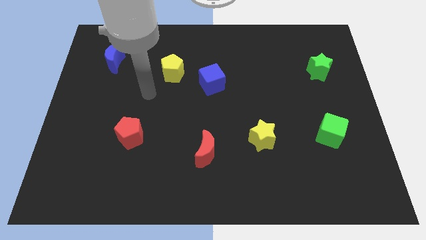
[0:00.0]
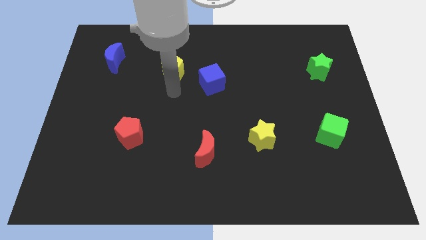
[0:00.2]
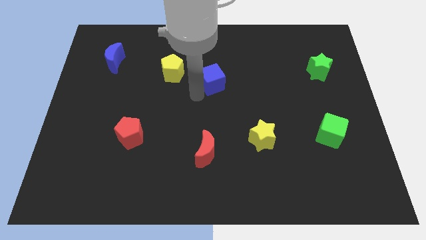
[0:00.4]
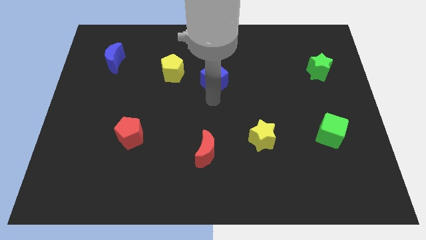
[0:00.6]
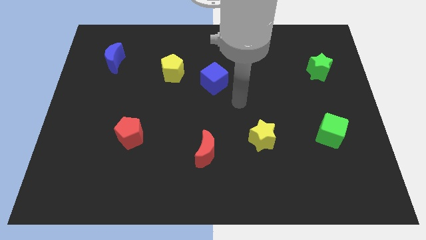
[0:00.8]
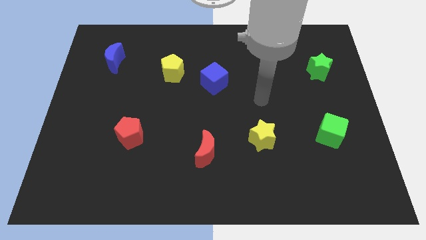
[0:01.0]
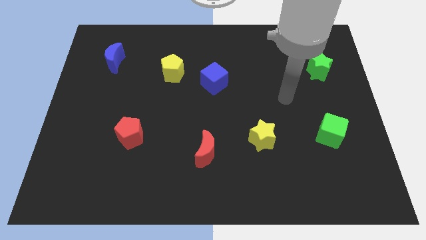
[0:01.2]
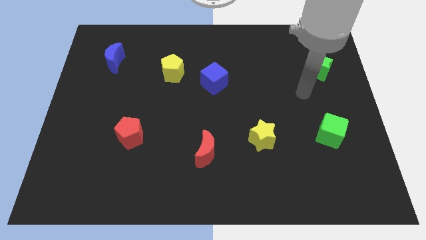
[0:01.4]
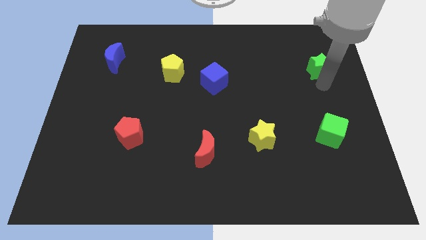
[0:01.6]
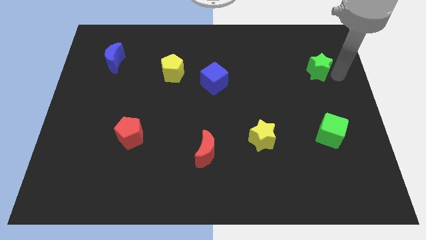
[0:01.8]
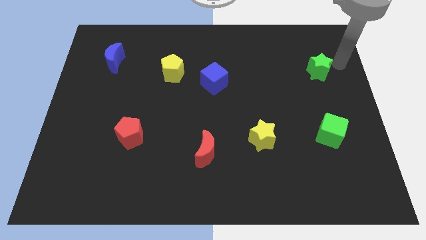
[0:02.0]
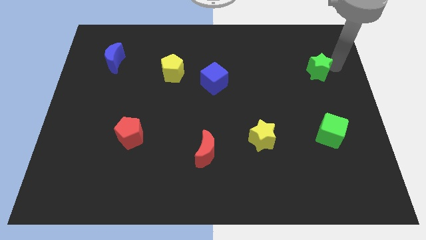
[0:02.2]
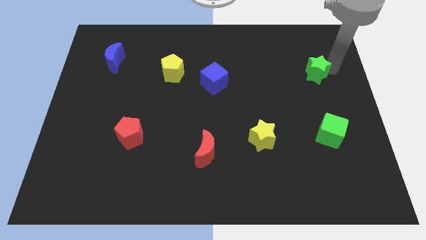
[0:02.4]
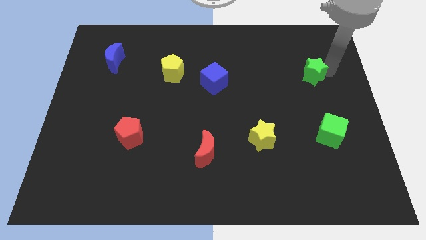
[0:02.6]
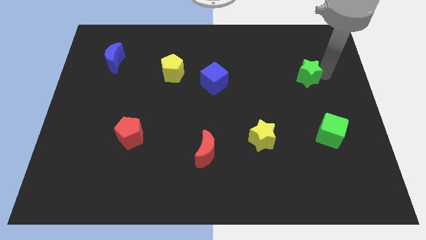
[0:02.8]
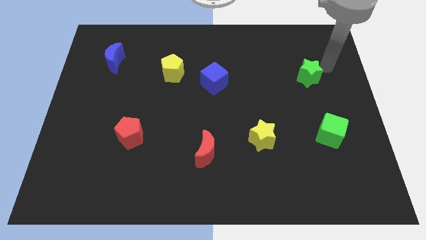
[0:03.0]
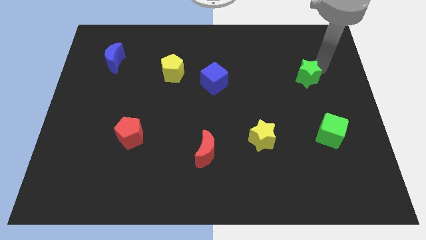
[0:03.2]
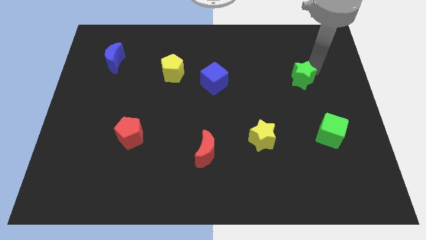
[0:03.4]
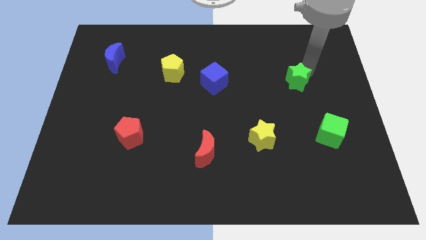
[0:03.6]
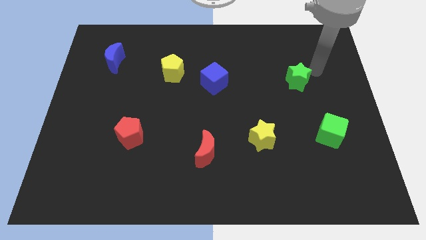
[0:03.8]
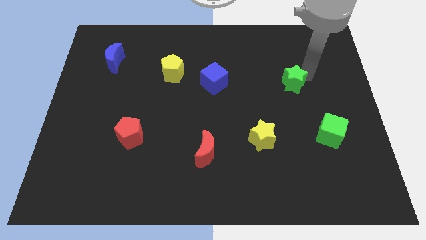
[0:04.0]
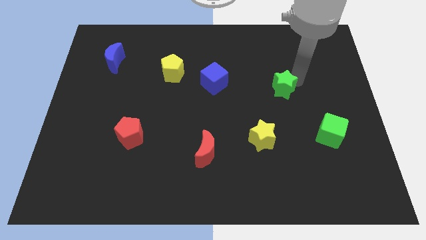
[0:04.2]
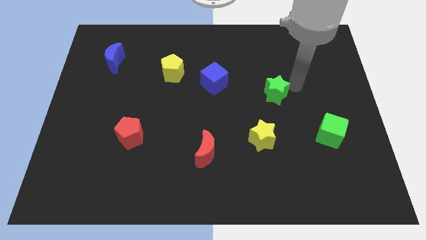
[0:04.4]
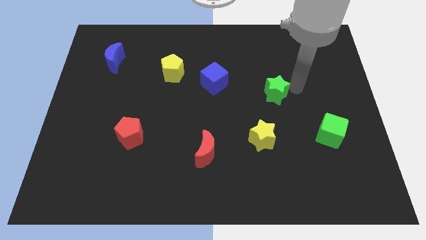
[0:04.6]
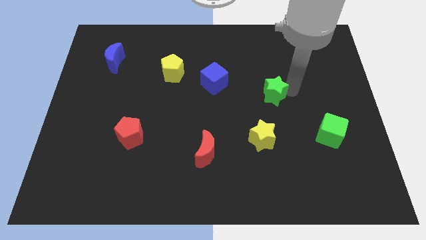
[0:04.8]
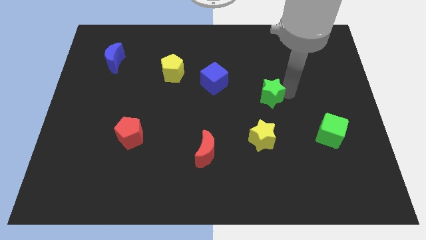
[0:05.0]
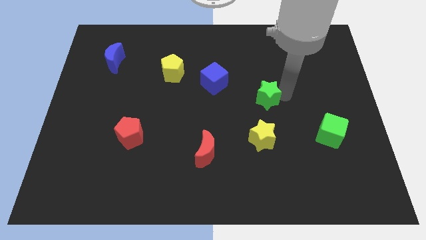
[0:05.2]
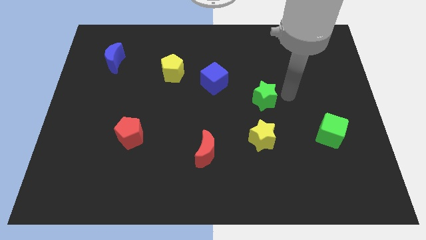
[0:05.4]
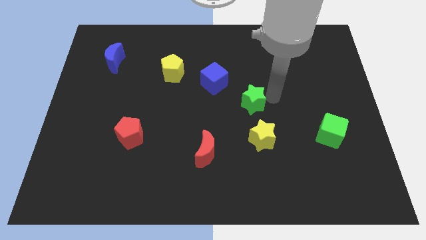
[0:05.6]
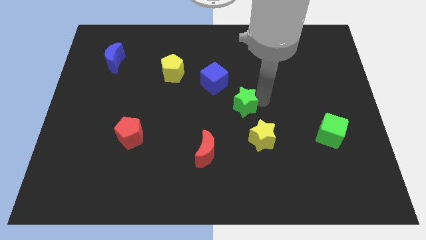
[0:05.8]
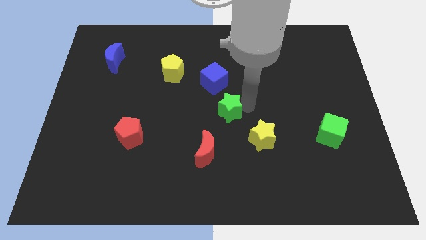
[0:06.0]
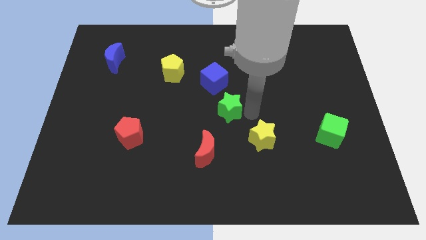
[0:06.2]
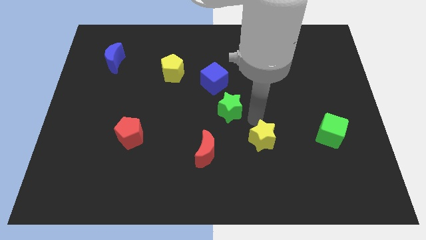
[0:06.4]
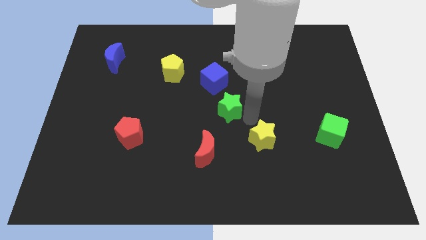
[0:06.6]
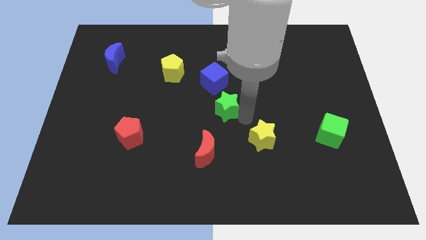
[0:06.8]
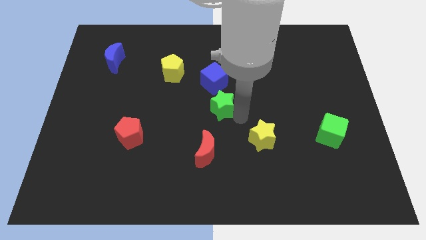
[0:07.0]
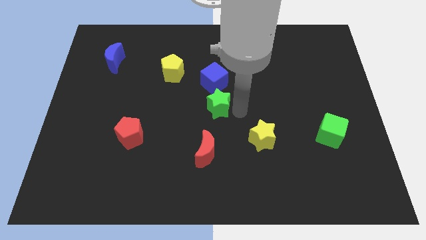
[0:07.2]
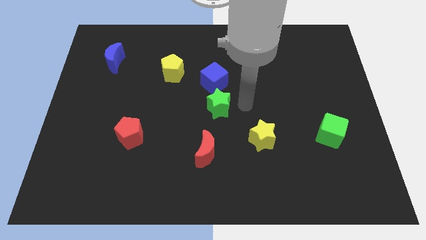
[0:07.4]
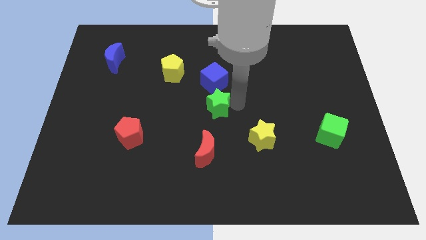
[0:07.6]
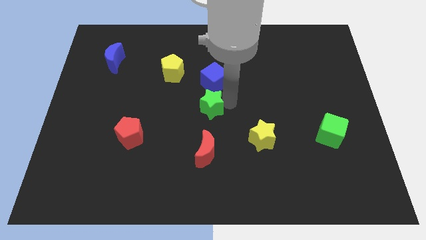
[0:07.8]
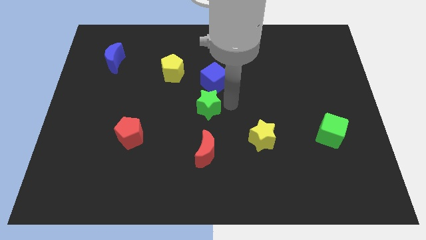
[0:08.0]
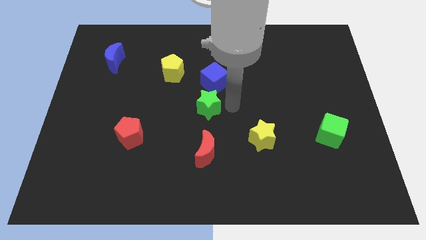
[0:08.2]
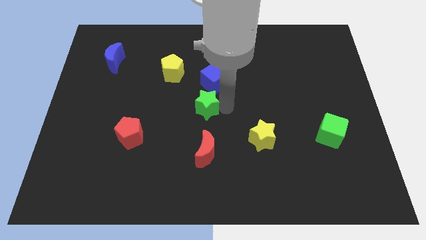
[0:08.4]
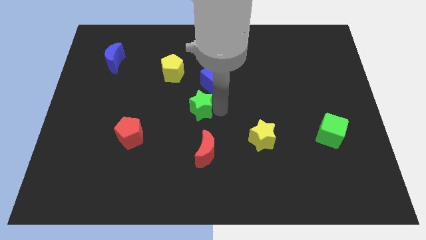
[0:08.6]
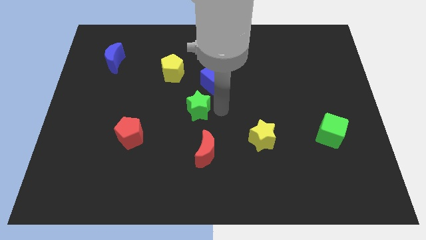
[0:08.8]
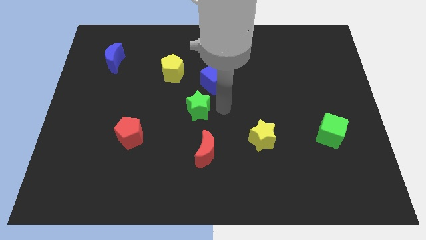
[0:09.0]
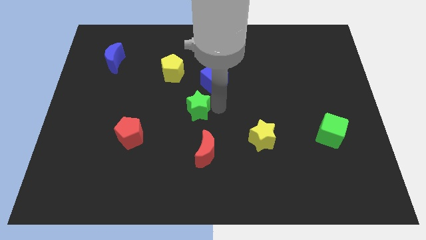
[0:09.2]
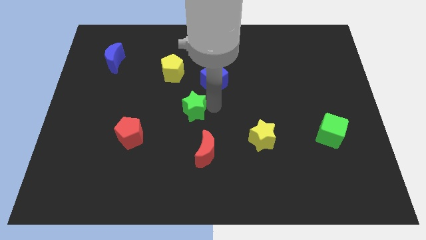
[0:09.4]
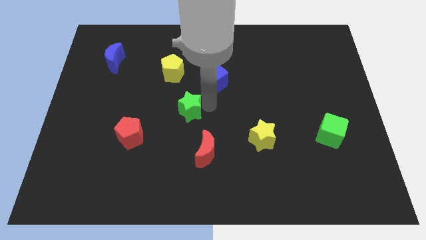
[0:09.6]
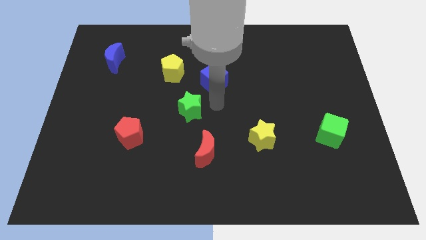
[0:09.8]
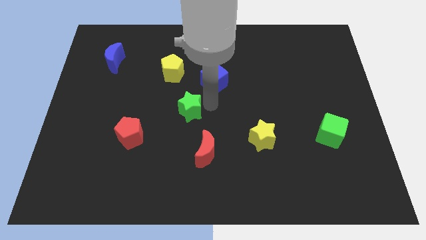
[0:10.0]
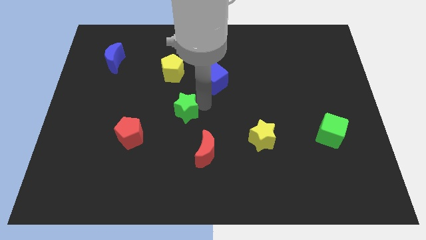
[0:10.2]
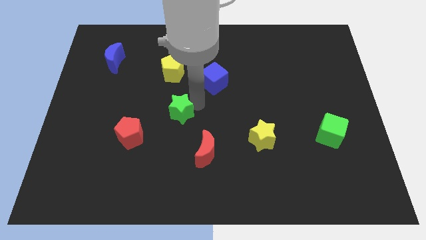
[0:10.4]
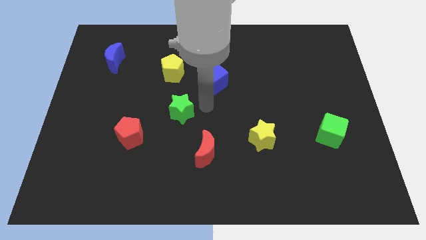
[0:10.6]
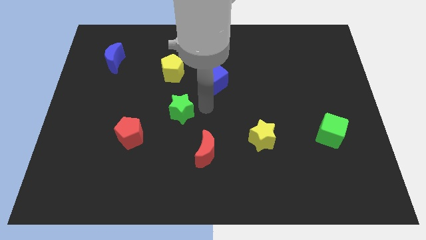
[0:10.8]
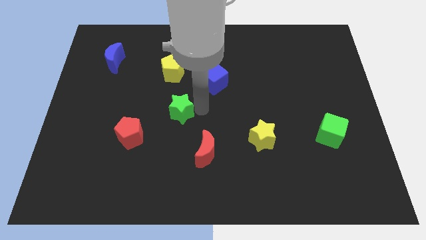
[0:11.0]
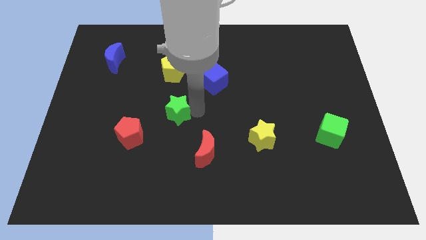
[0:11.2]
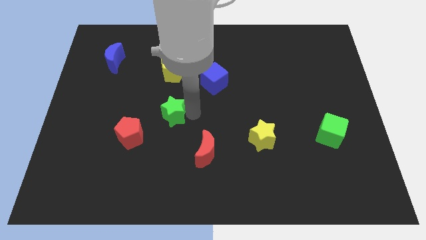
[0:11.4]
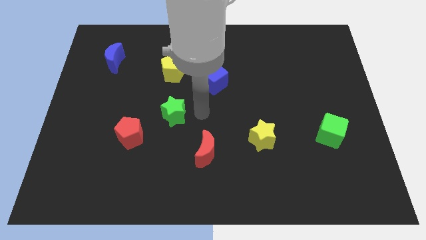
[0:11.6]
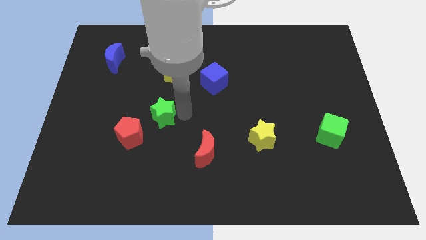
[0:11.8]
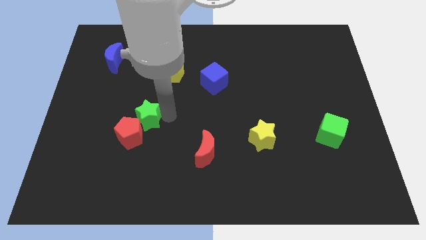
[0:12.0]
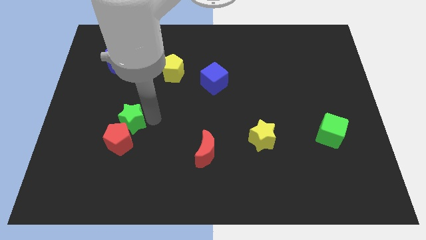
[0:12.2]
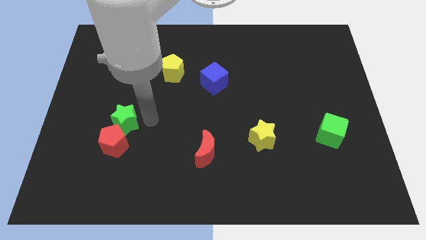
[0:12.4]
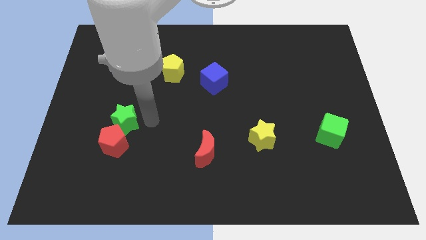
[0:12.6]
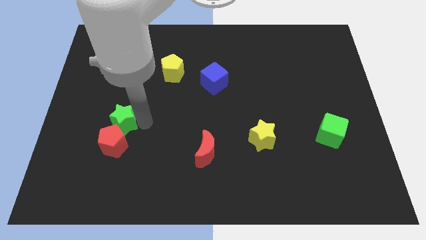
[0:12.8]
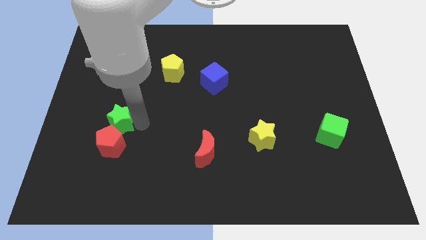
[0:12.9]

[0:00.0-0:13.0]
put the green star to the top left side of the red pentagon
